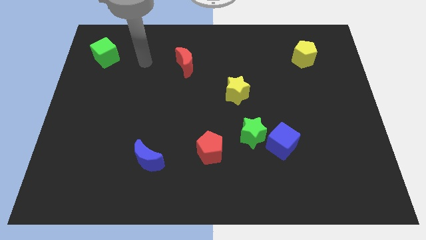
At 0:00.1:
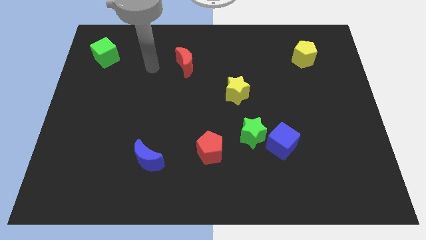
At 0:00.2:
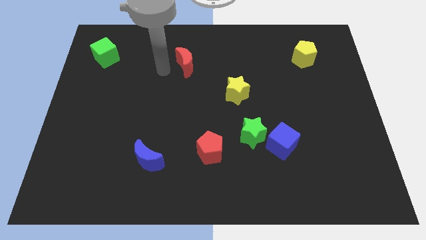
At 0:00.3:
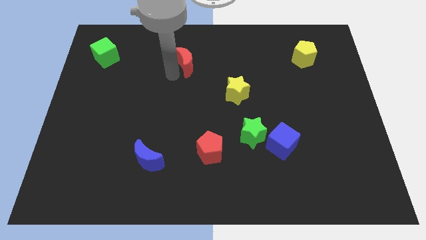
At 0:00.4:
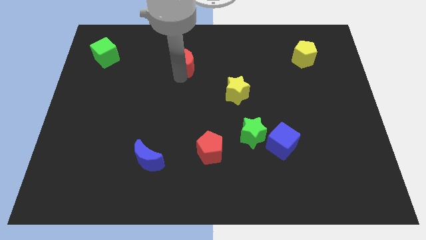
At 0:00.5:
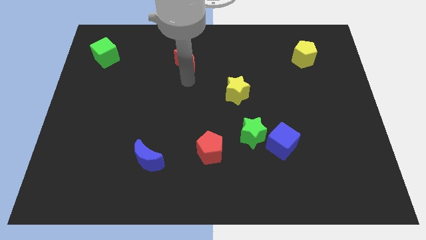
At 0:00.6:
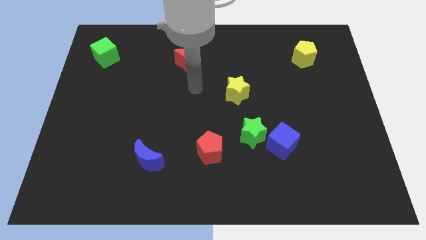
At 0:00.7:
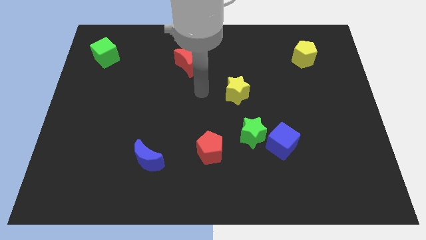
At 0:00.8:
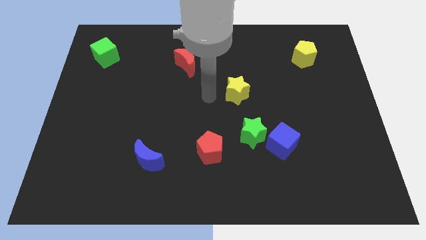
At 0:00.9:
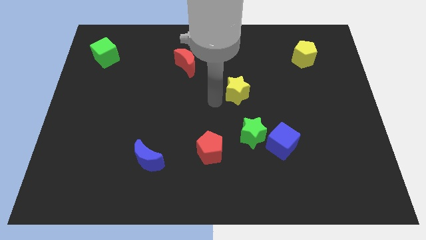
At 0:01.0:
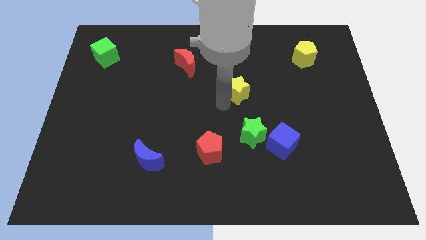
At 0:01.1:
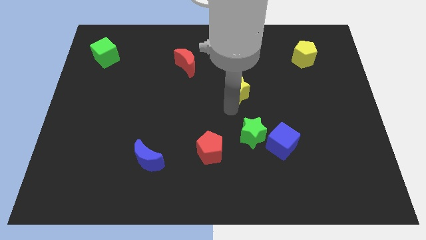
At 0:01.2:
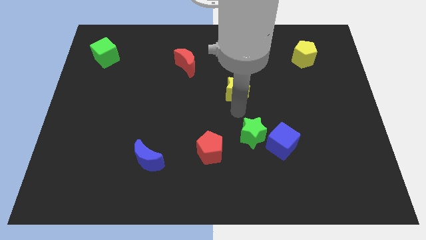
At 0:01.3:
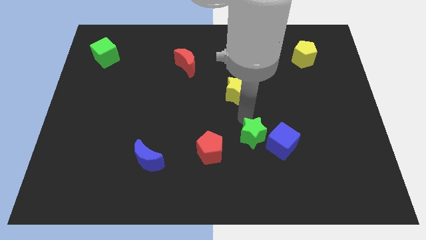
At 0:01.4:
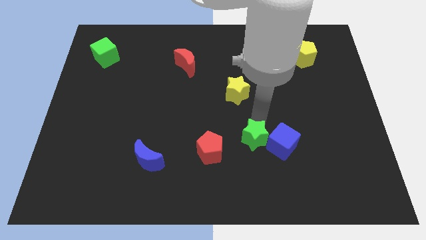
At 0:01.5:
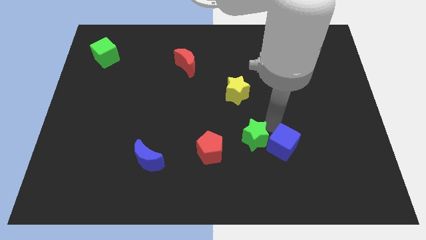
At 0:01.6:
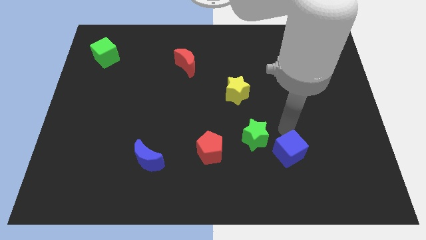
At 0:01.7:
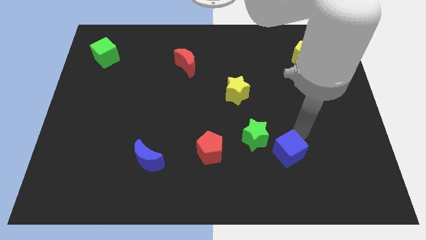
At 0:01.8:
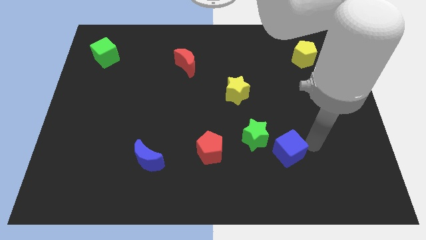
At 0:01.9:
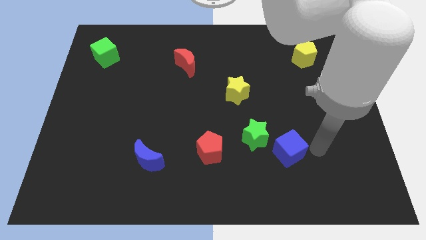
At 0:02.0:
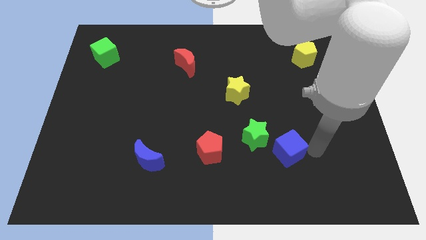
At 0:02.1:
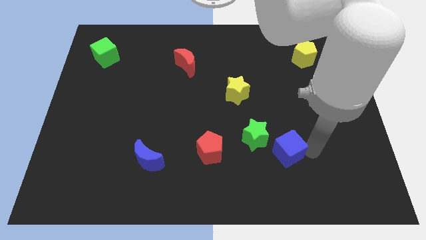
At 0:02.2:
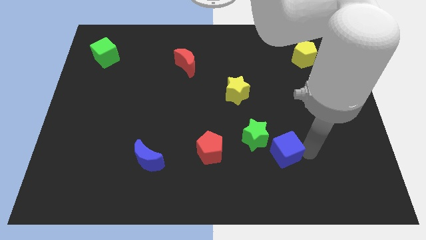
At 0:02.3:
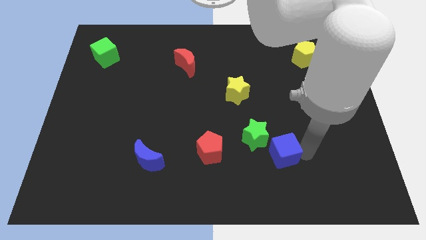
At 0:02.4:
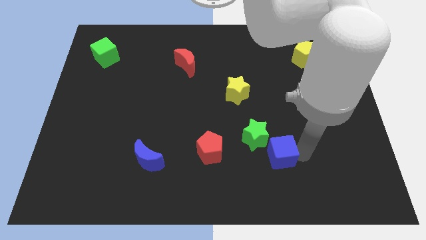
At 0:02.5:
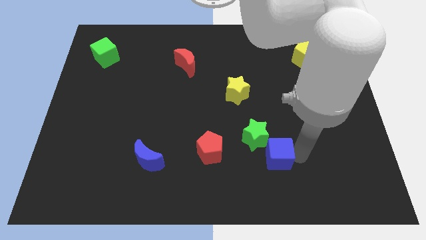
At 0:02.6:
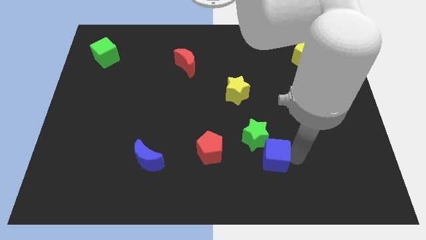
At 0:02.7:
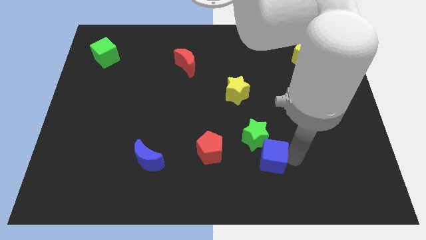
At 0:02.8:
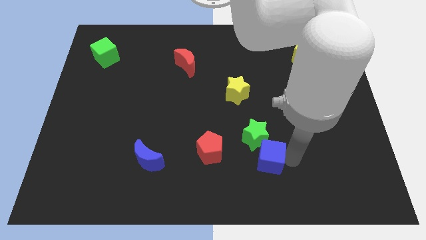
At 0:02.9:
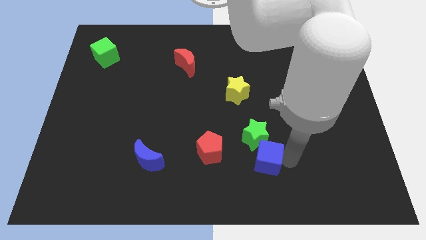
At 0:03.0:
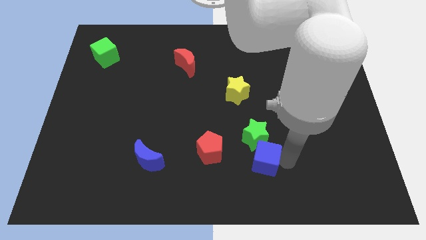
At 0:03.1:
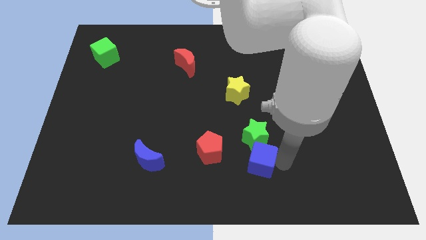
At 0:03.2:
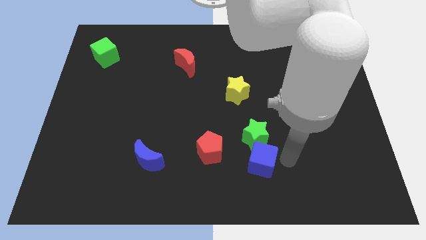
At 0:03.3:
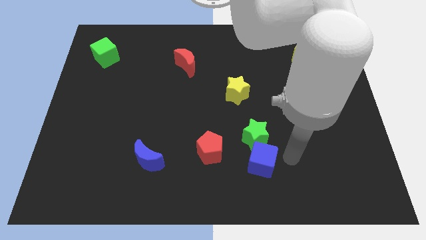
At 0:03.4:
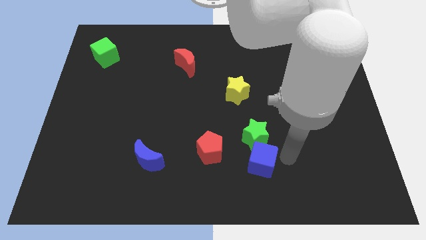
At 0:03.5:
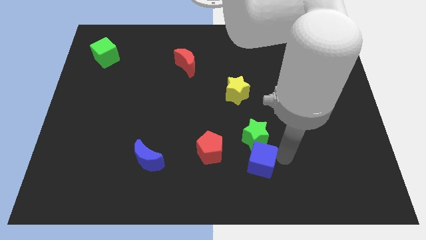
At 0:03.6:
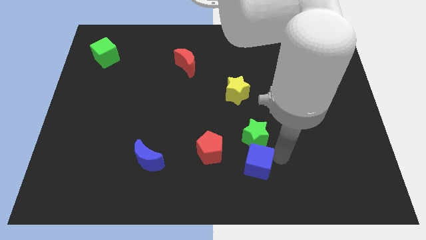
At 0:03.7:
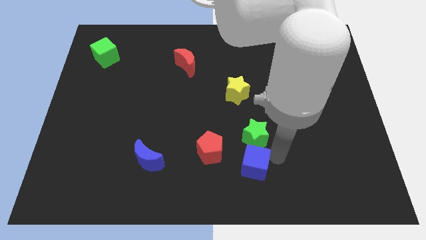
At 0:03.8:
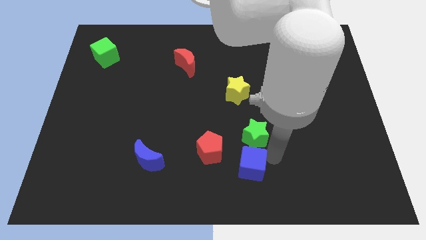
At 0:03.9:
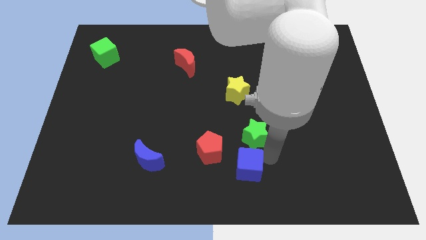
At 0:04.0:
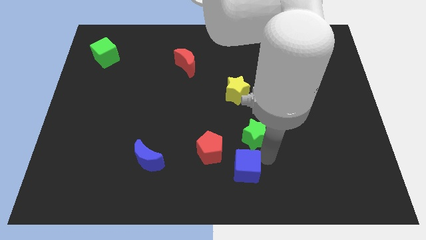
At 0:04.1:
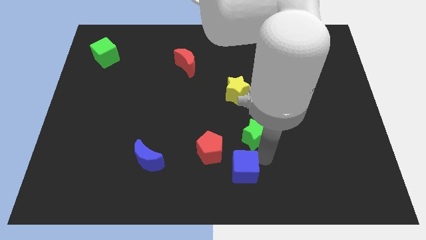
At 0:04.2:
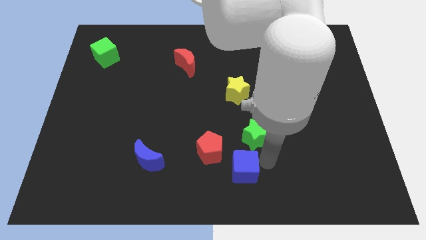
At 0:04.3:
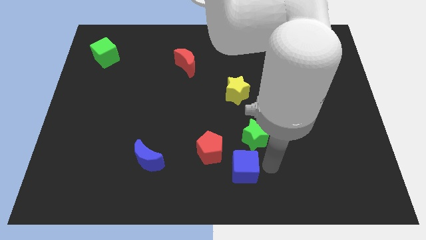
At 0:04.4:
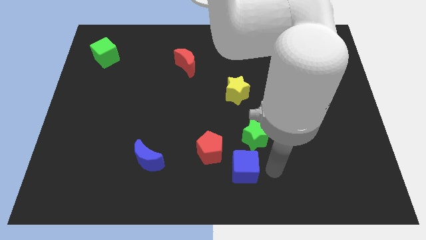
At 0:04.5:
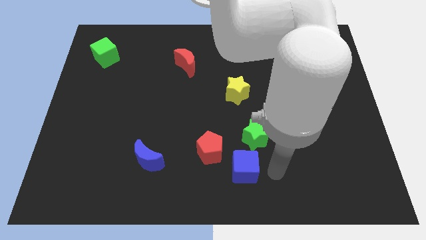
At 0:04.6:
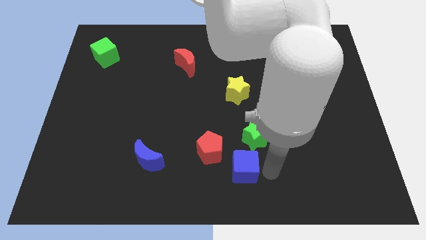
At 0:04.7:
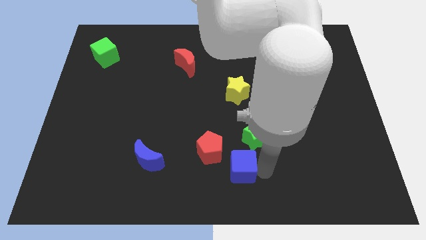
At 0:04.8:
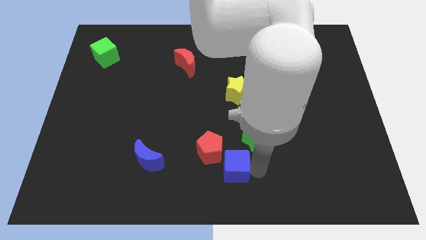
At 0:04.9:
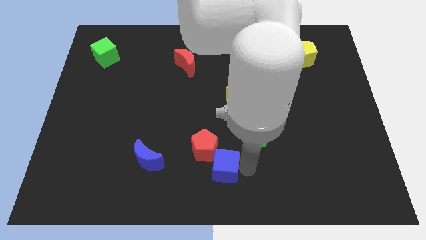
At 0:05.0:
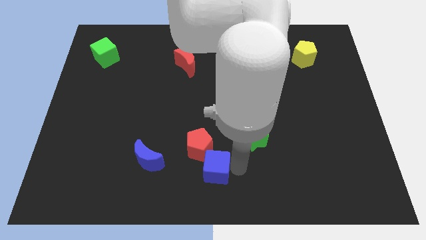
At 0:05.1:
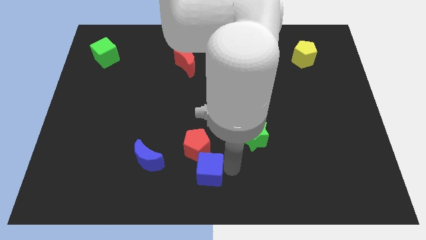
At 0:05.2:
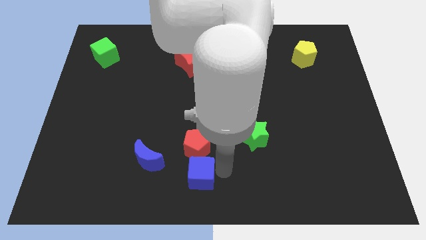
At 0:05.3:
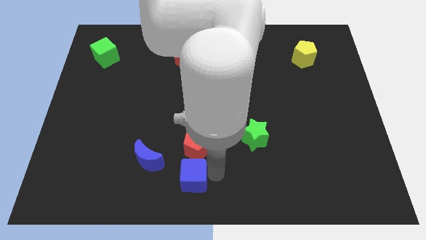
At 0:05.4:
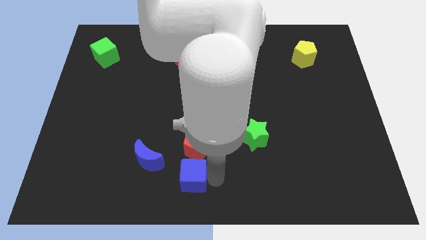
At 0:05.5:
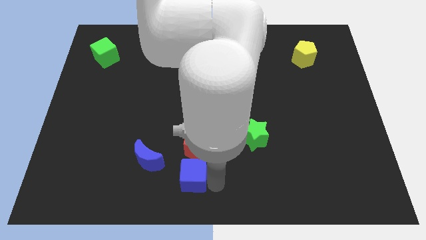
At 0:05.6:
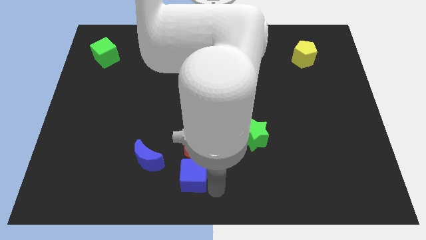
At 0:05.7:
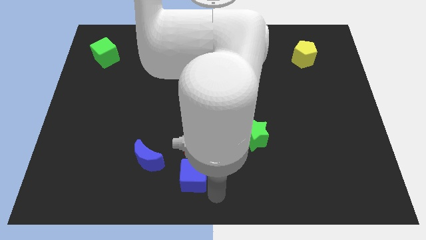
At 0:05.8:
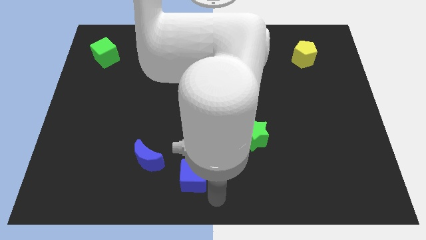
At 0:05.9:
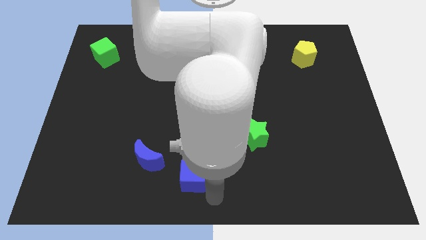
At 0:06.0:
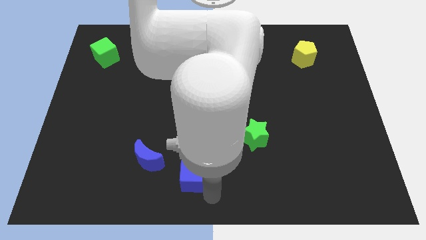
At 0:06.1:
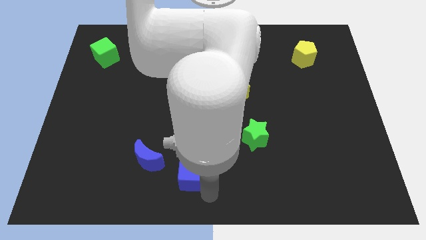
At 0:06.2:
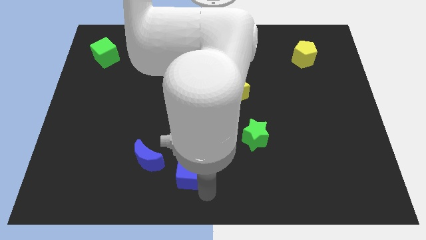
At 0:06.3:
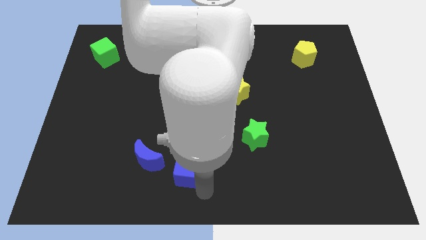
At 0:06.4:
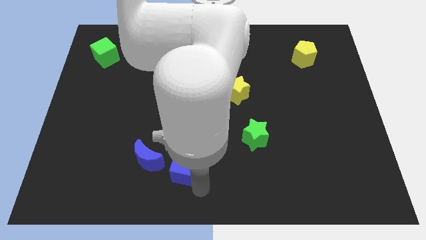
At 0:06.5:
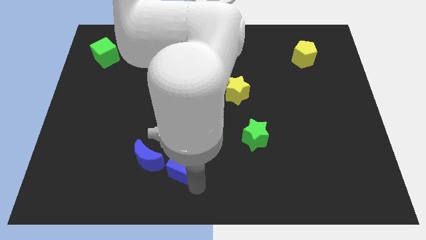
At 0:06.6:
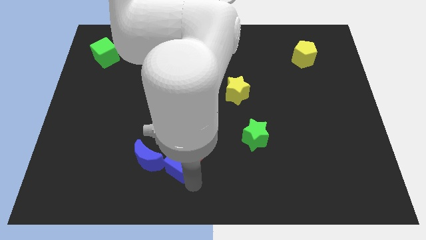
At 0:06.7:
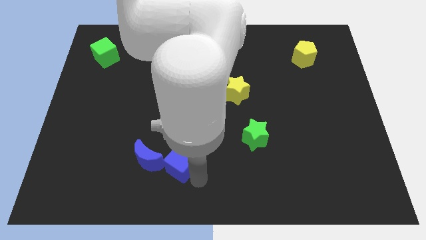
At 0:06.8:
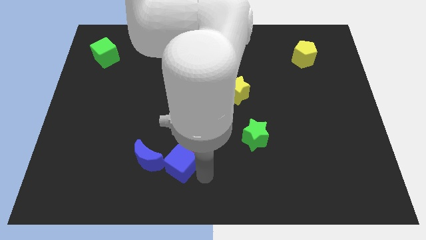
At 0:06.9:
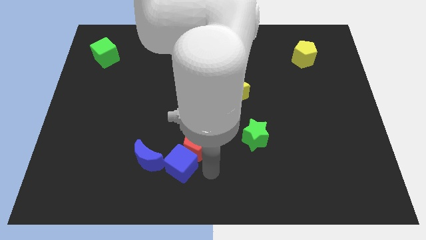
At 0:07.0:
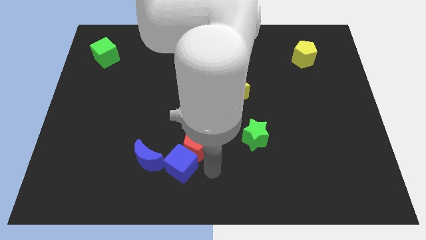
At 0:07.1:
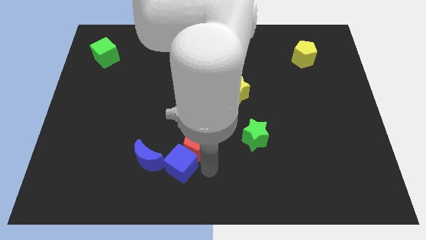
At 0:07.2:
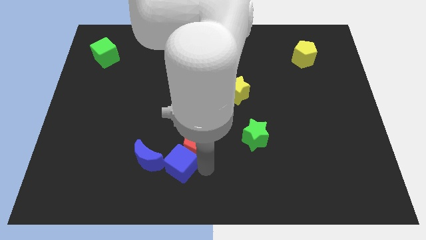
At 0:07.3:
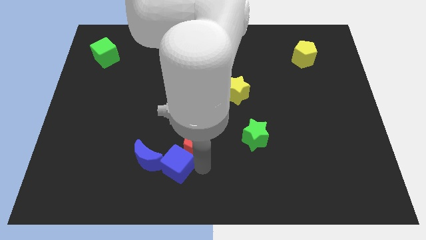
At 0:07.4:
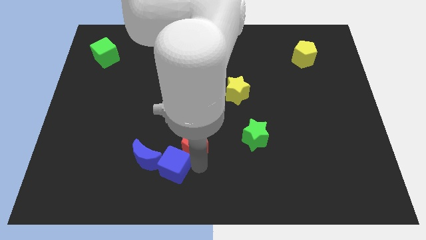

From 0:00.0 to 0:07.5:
move the blue cube towards the blue moon
